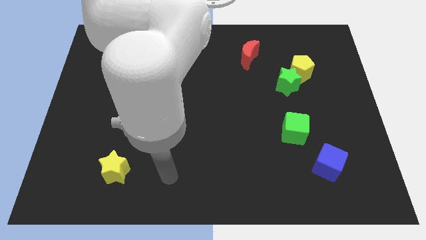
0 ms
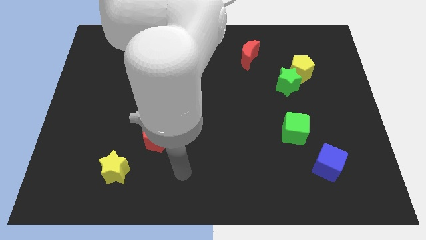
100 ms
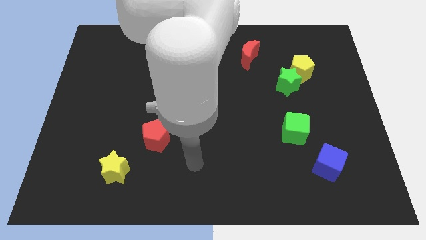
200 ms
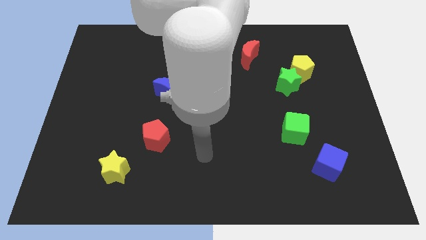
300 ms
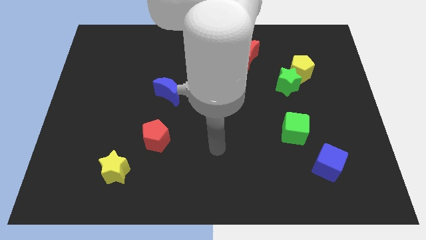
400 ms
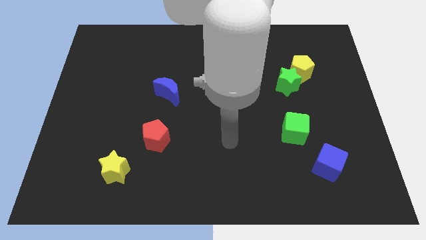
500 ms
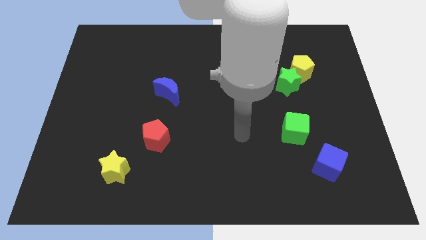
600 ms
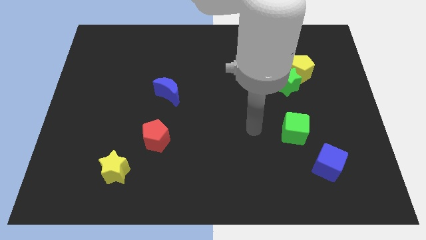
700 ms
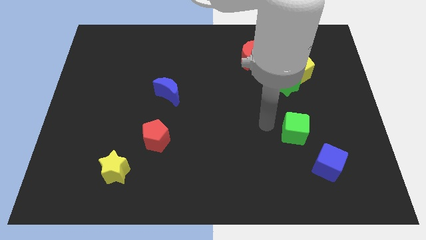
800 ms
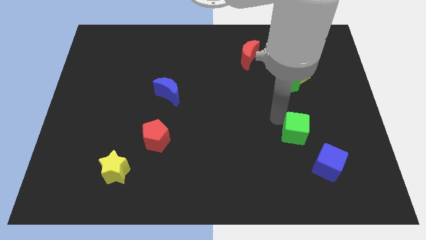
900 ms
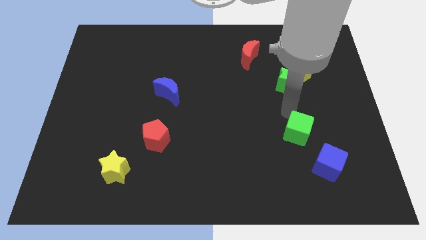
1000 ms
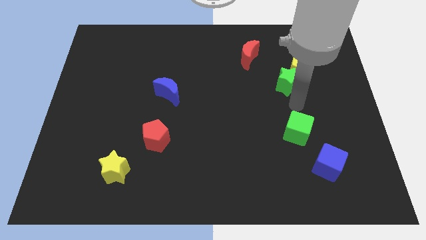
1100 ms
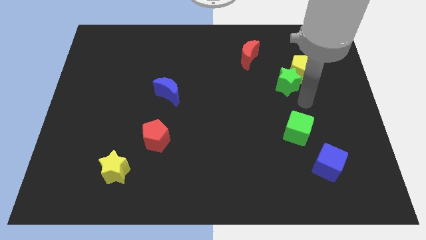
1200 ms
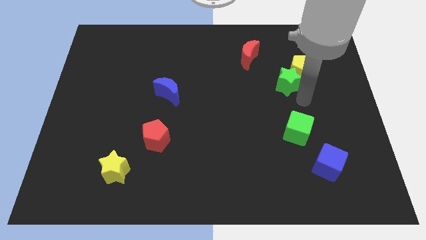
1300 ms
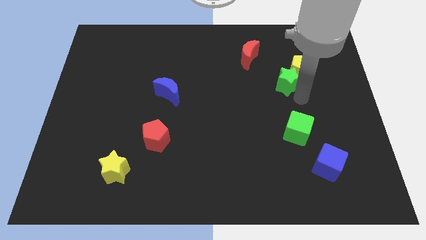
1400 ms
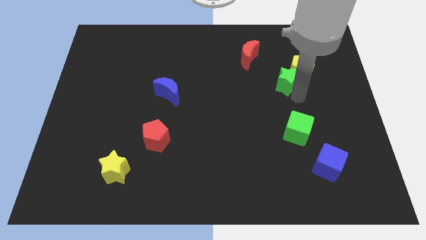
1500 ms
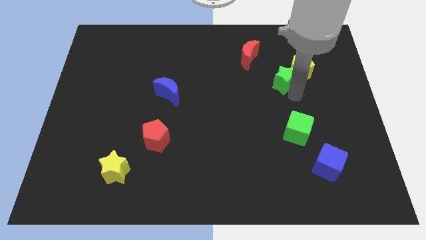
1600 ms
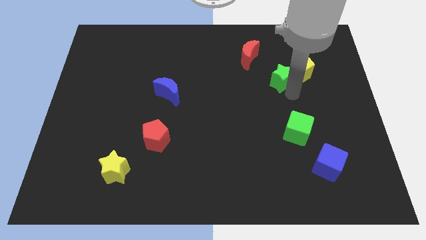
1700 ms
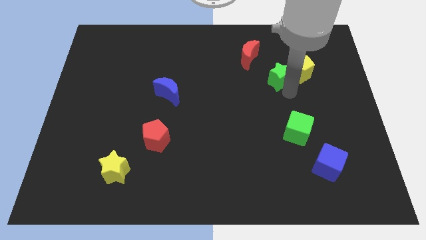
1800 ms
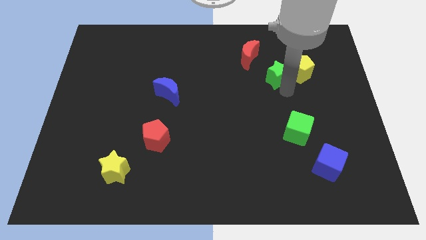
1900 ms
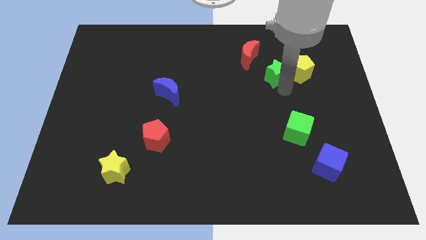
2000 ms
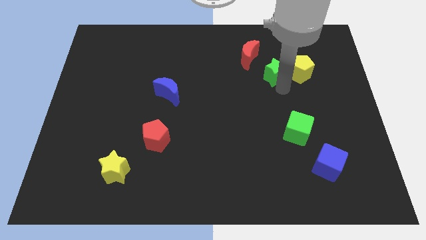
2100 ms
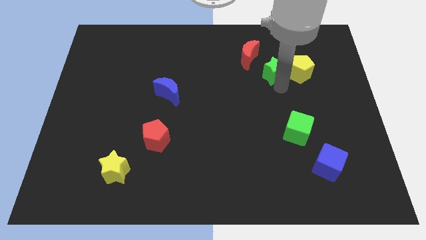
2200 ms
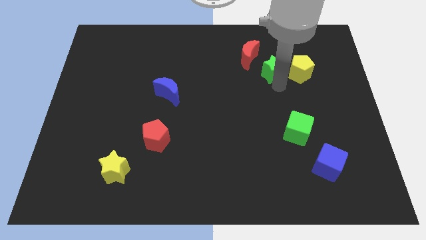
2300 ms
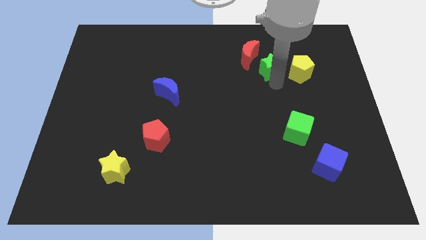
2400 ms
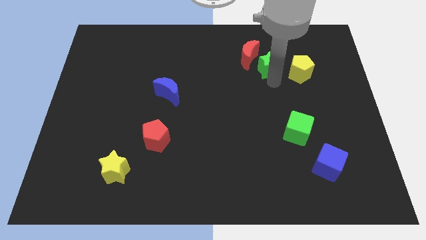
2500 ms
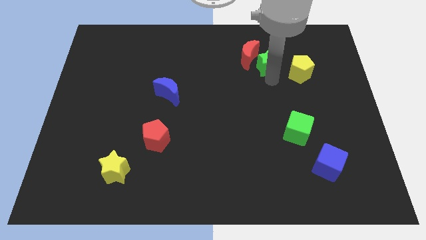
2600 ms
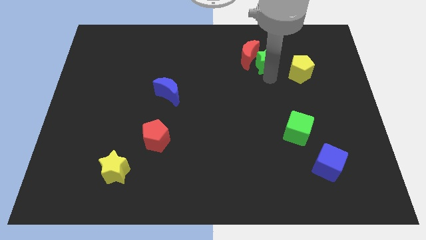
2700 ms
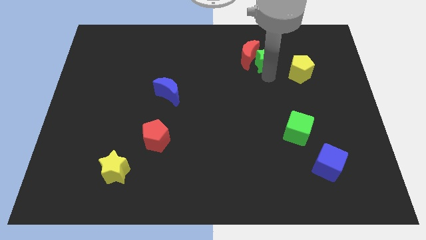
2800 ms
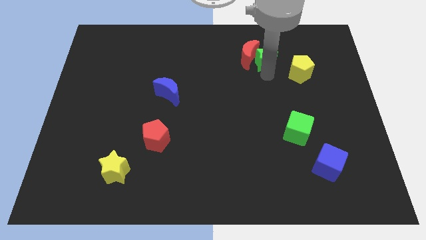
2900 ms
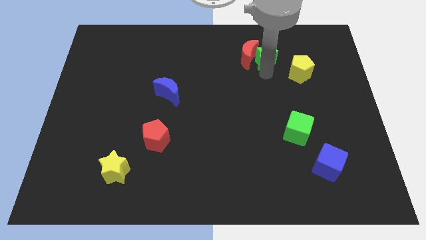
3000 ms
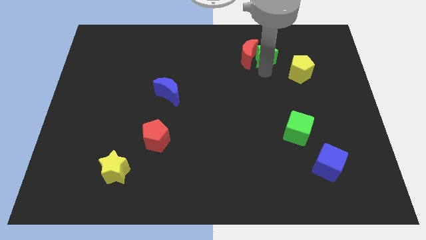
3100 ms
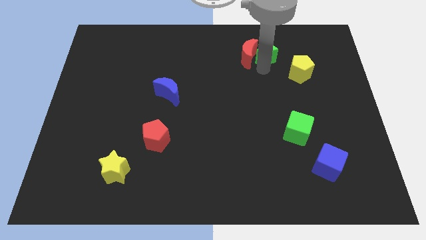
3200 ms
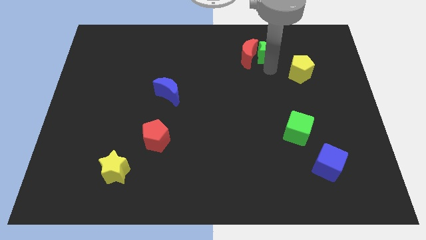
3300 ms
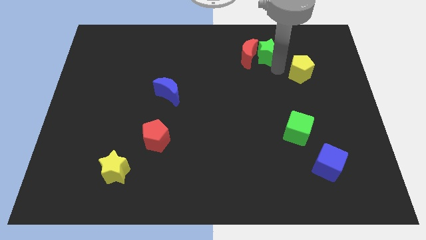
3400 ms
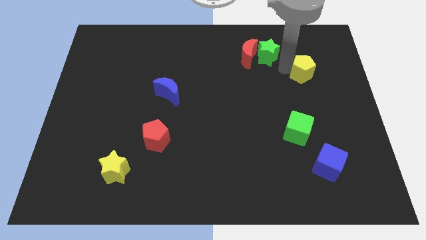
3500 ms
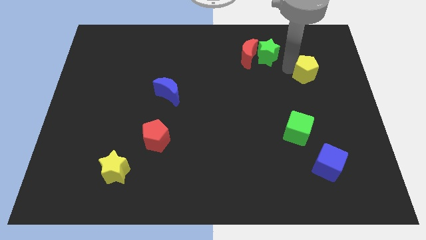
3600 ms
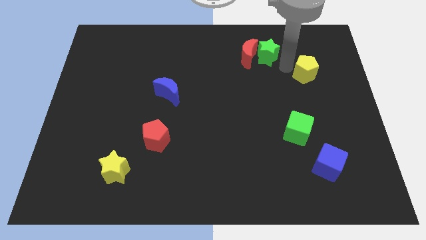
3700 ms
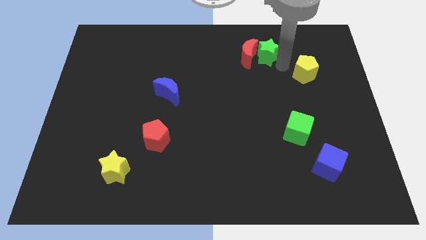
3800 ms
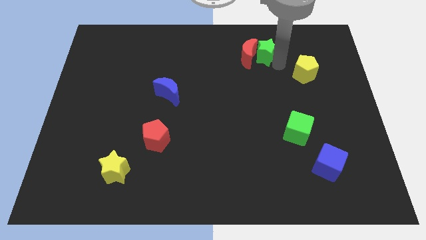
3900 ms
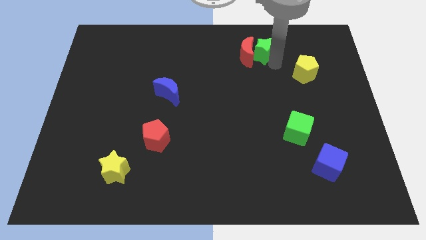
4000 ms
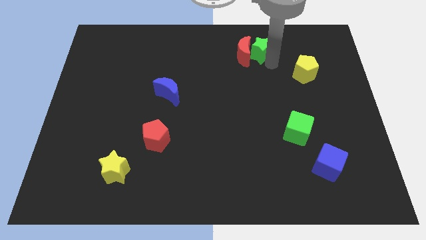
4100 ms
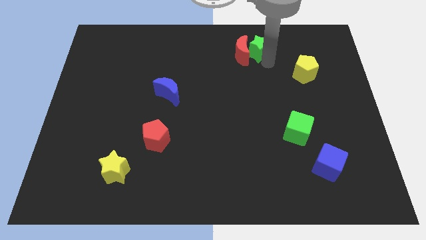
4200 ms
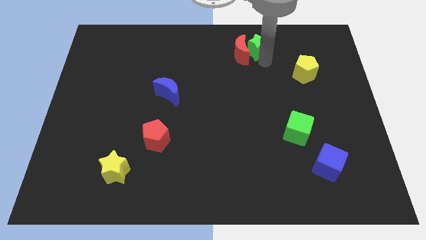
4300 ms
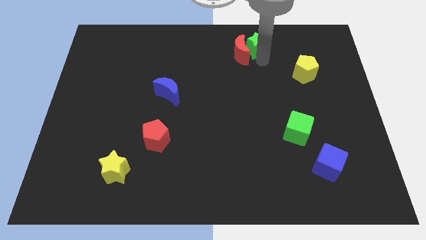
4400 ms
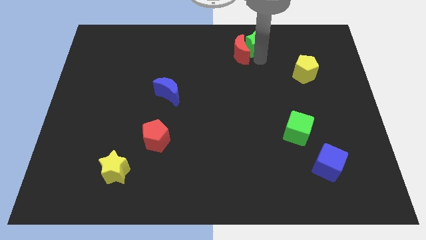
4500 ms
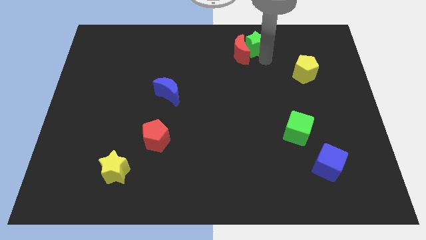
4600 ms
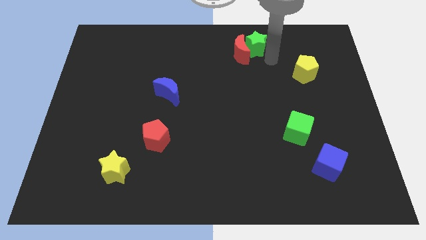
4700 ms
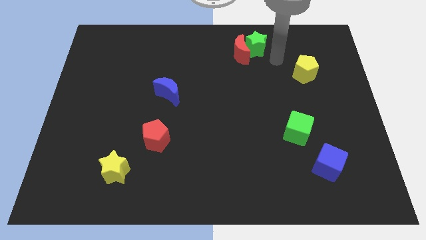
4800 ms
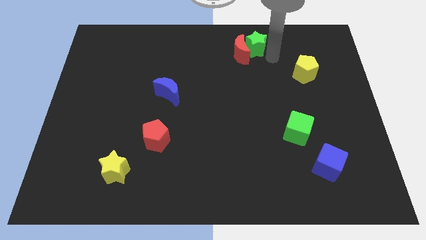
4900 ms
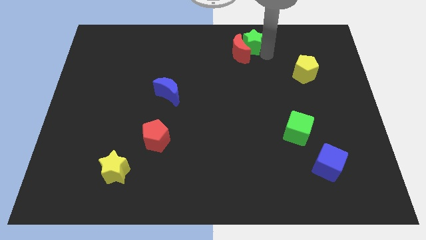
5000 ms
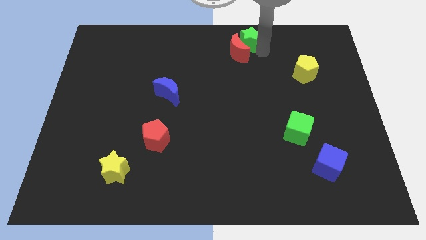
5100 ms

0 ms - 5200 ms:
move the green star to the towards your base

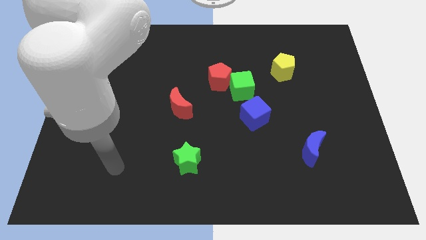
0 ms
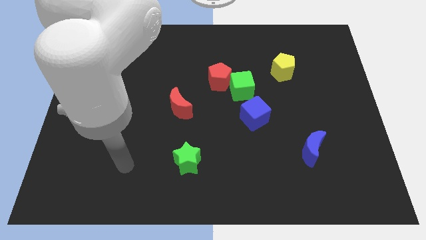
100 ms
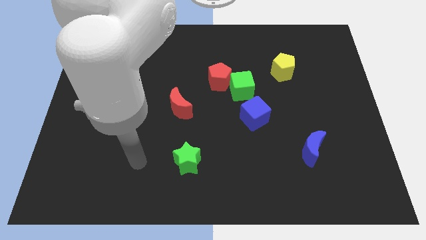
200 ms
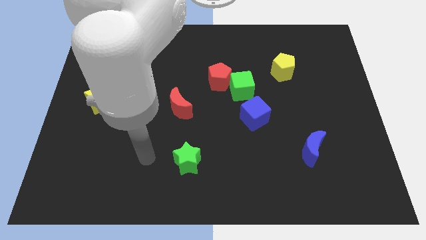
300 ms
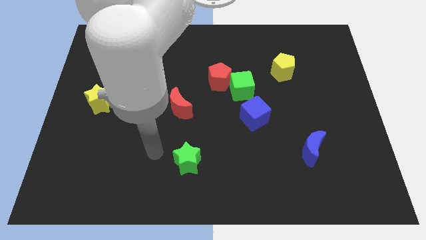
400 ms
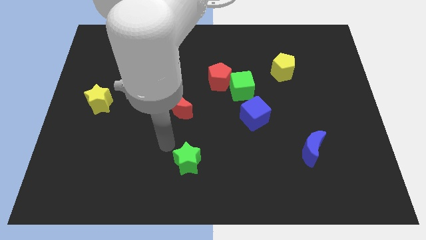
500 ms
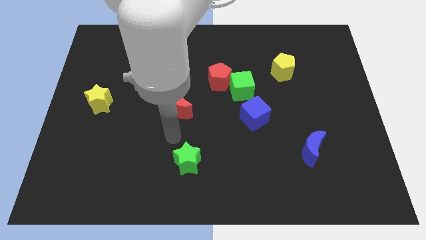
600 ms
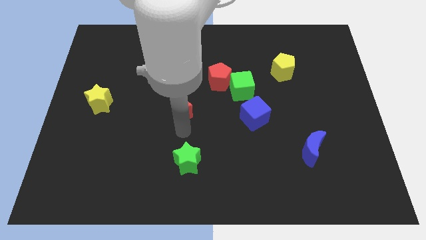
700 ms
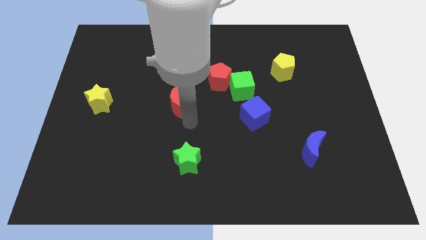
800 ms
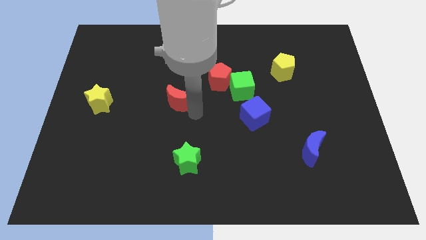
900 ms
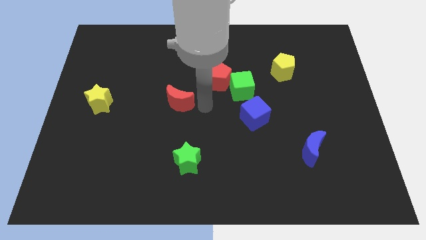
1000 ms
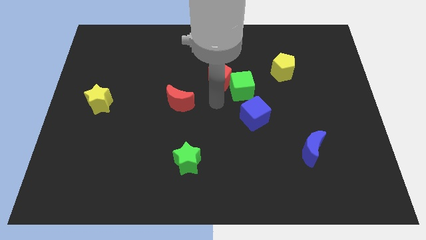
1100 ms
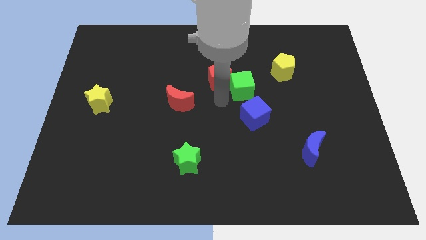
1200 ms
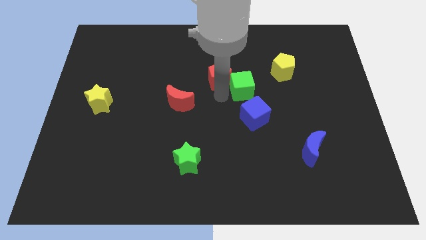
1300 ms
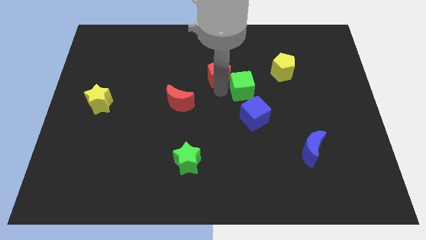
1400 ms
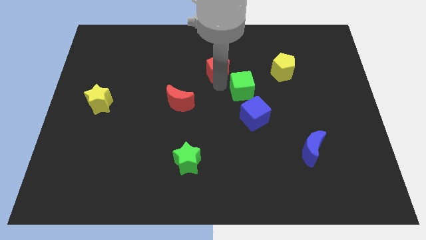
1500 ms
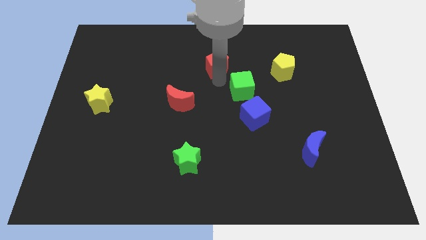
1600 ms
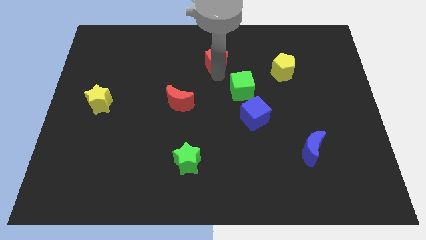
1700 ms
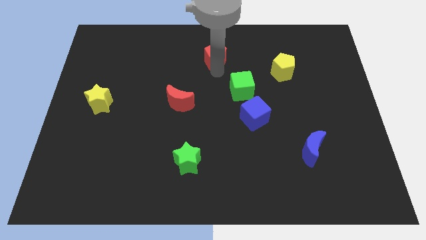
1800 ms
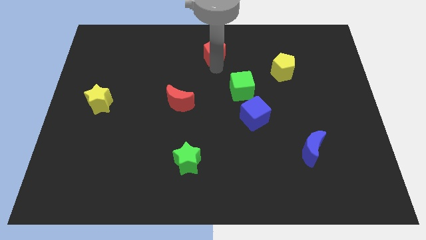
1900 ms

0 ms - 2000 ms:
push the red pentagon to the top side

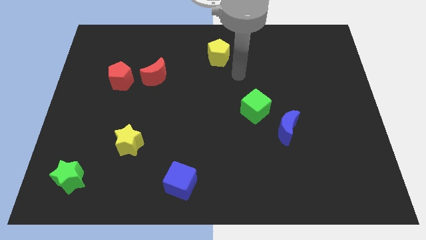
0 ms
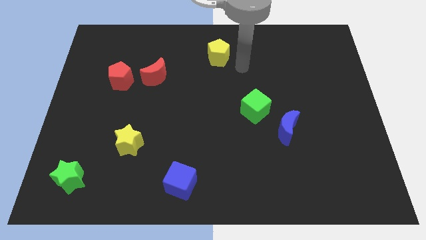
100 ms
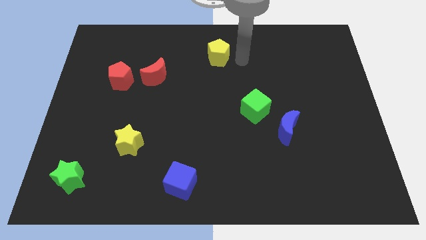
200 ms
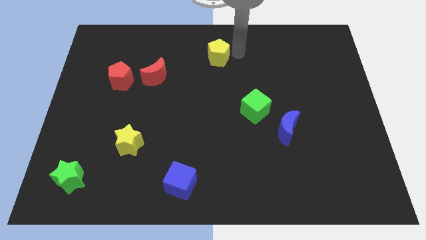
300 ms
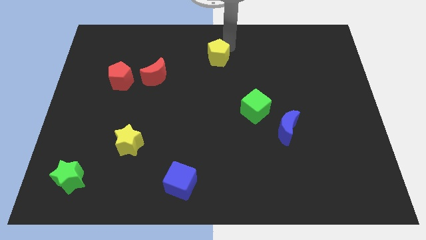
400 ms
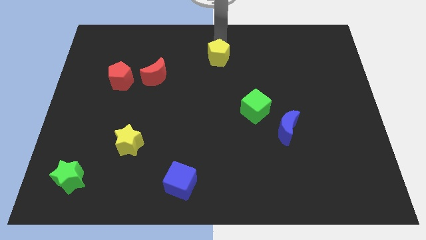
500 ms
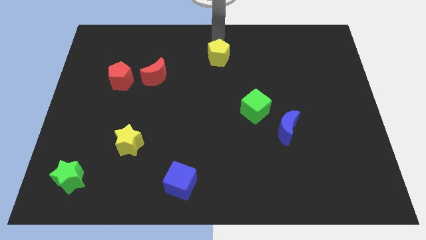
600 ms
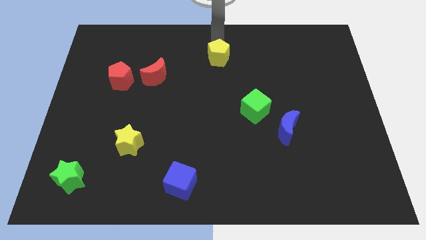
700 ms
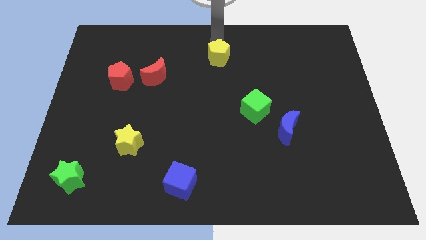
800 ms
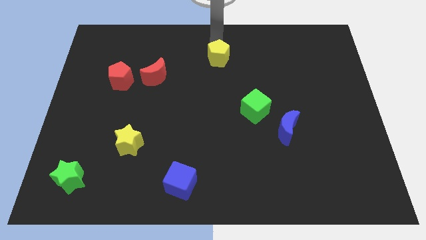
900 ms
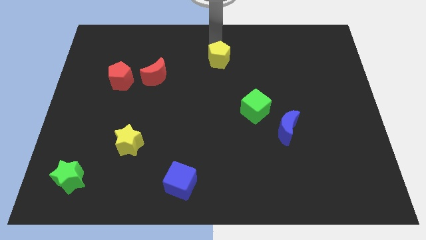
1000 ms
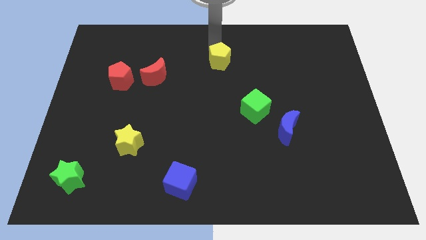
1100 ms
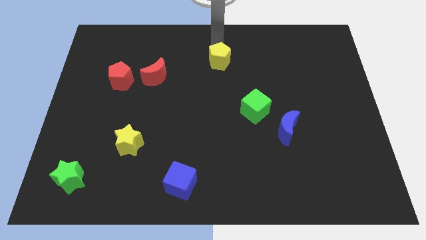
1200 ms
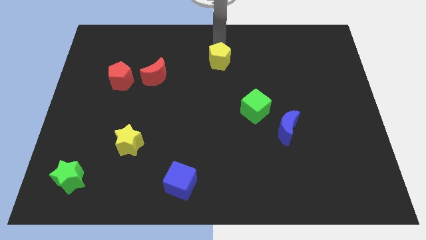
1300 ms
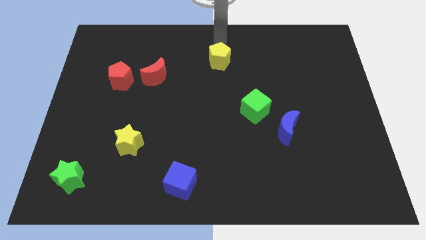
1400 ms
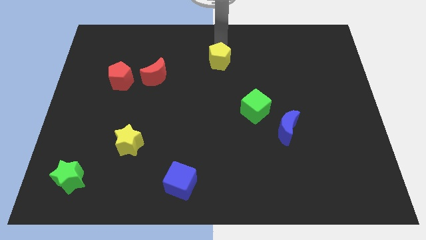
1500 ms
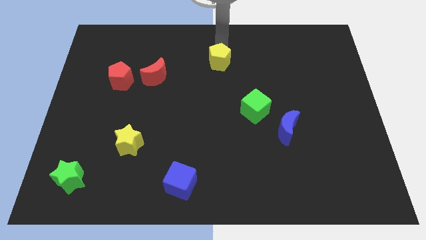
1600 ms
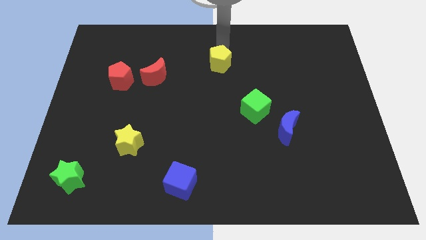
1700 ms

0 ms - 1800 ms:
move the yellow pentagon to the middle of the board
